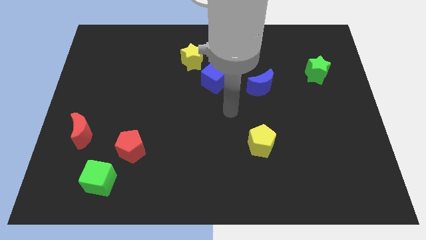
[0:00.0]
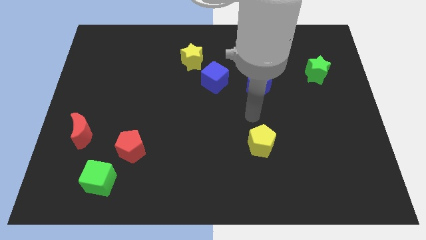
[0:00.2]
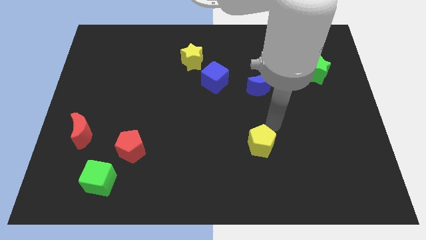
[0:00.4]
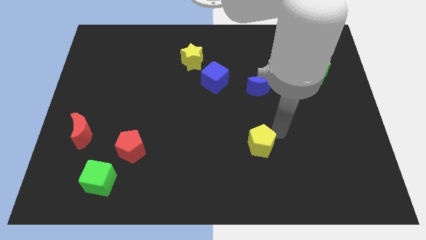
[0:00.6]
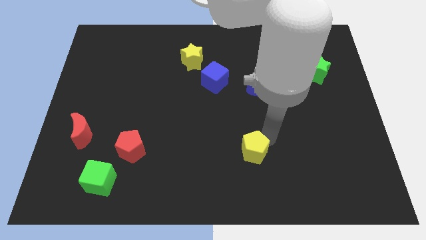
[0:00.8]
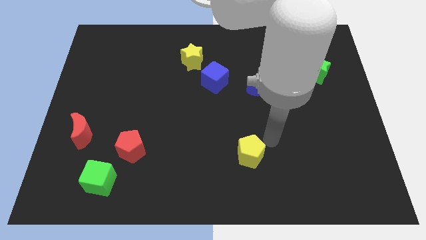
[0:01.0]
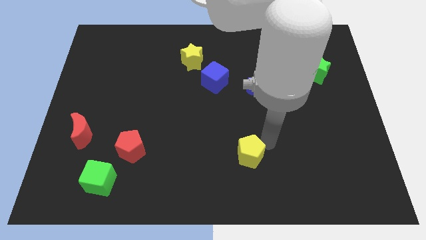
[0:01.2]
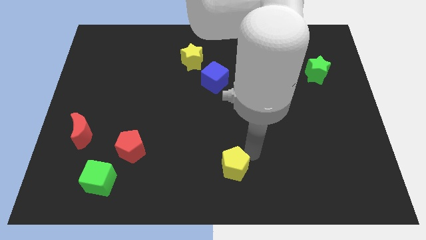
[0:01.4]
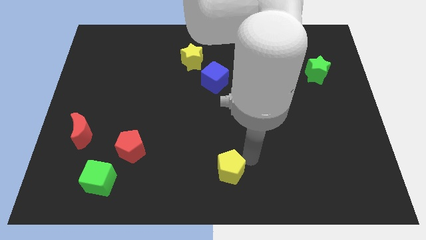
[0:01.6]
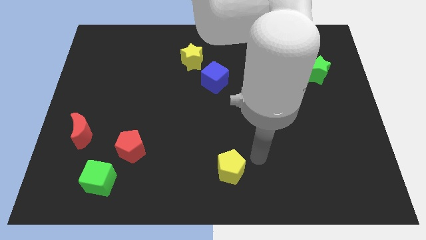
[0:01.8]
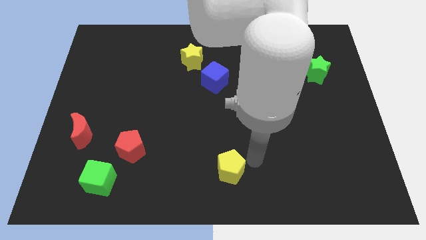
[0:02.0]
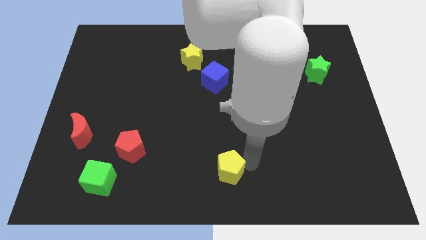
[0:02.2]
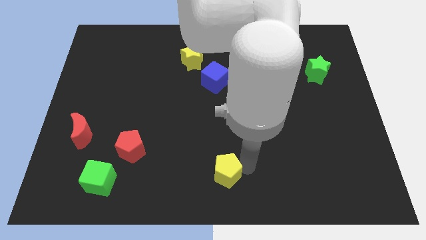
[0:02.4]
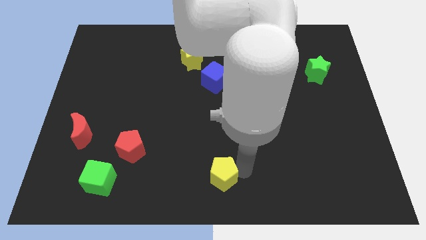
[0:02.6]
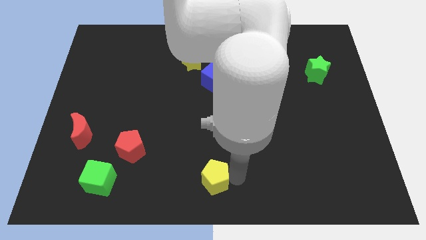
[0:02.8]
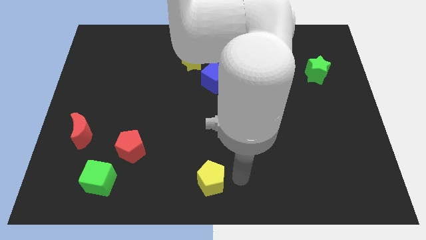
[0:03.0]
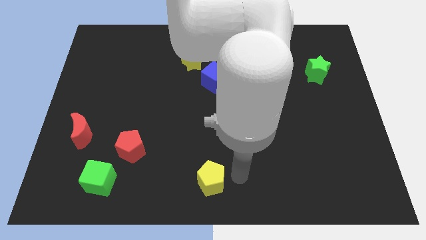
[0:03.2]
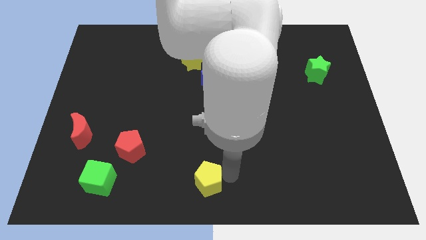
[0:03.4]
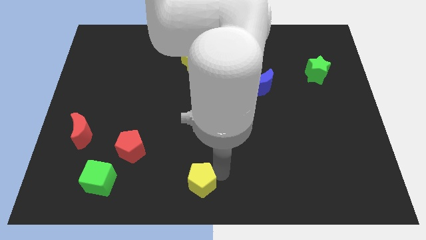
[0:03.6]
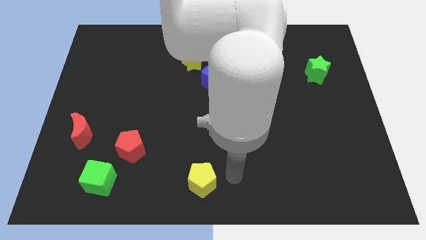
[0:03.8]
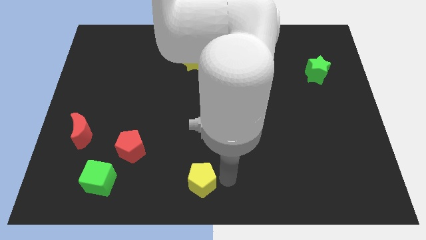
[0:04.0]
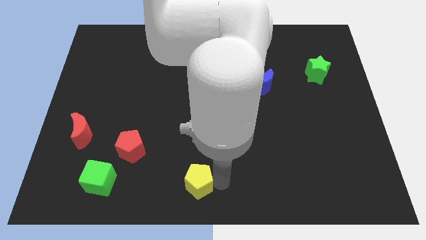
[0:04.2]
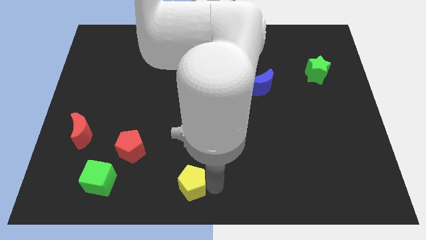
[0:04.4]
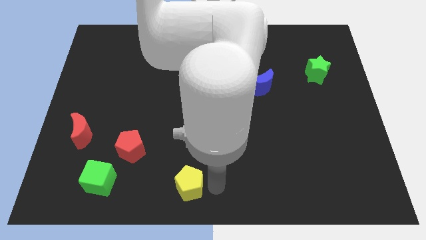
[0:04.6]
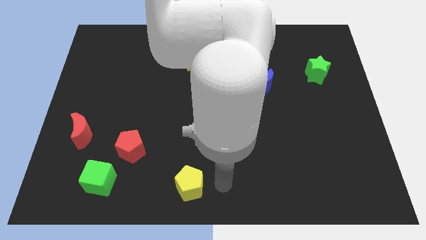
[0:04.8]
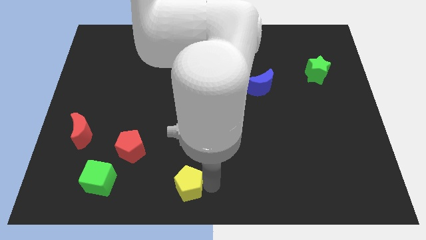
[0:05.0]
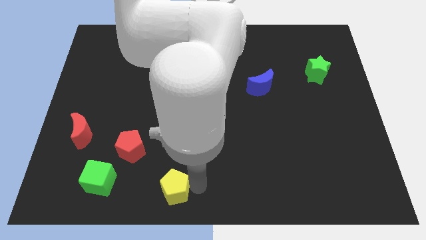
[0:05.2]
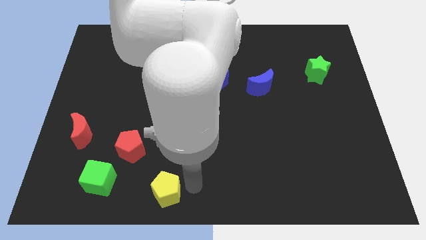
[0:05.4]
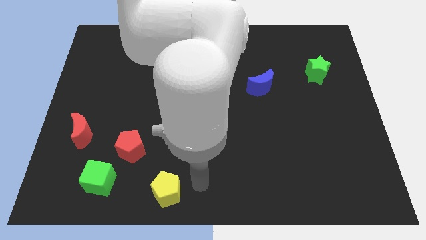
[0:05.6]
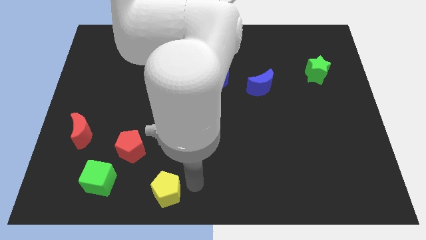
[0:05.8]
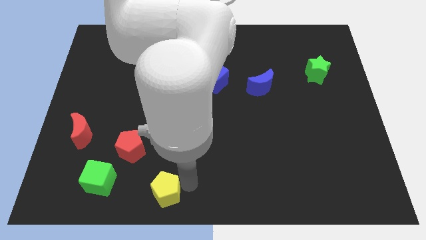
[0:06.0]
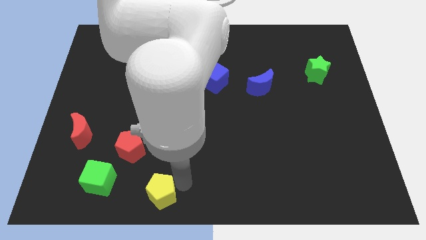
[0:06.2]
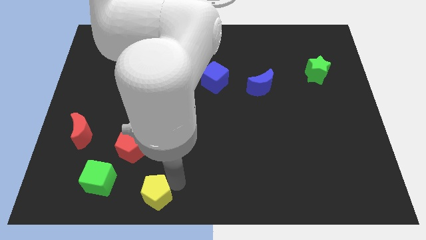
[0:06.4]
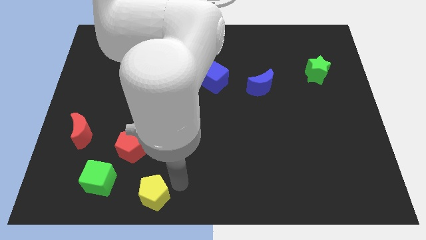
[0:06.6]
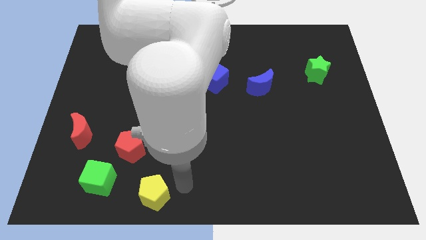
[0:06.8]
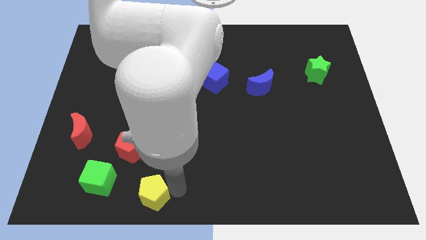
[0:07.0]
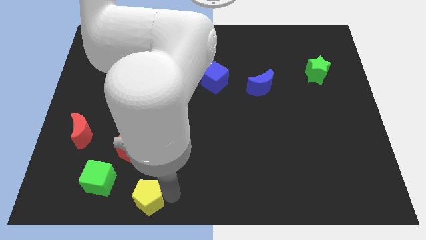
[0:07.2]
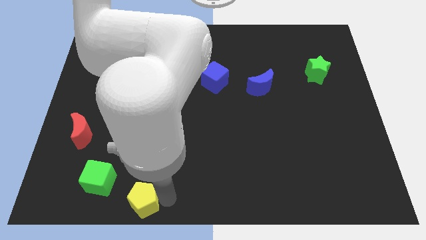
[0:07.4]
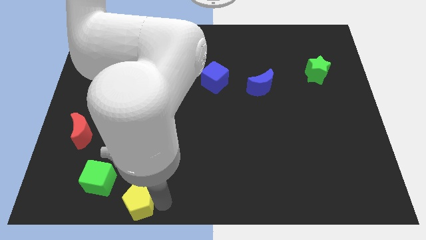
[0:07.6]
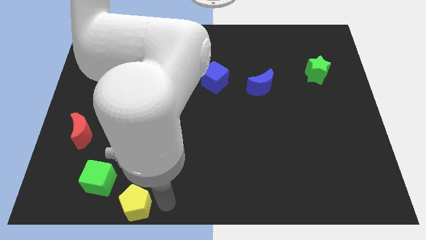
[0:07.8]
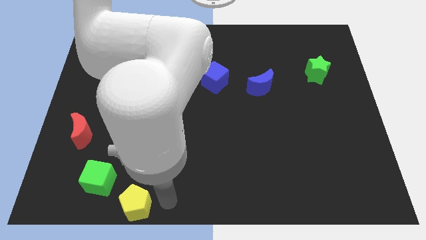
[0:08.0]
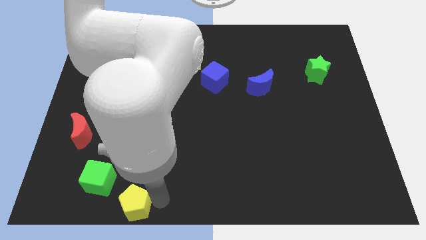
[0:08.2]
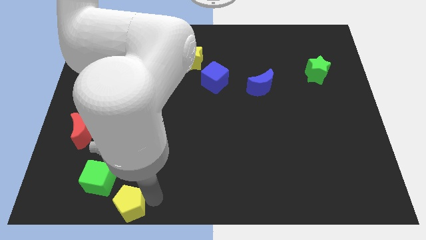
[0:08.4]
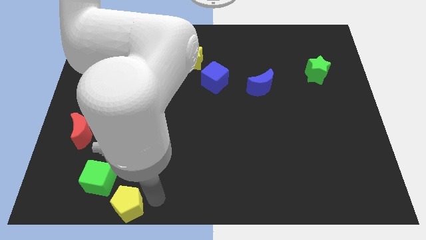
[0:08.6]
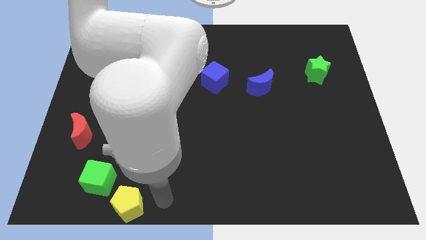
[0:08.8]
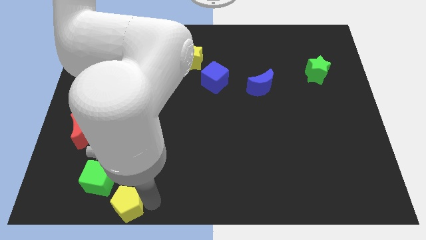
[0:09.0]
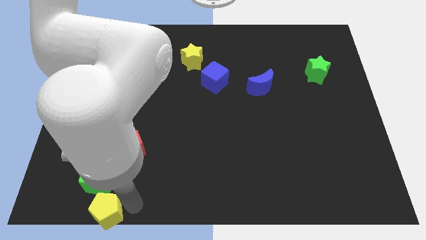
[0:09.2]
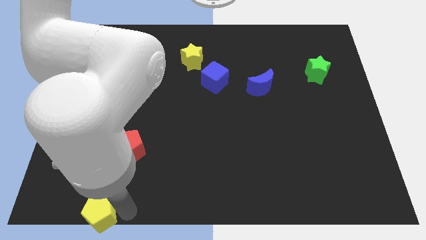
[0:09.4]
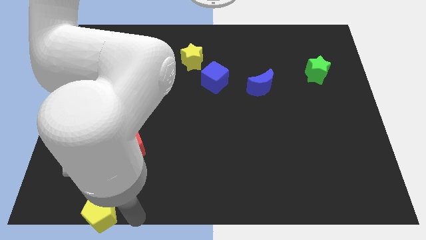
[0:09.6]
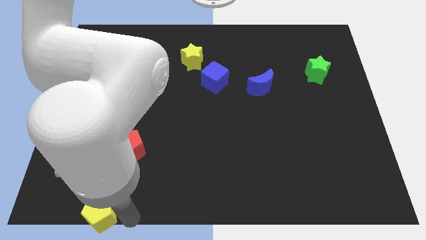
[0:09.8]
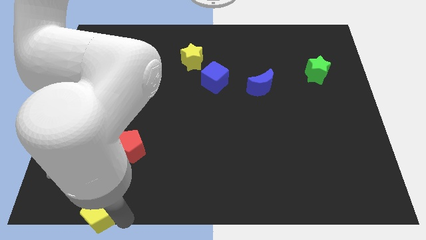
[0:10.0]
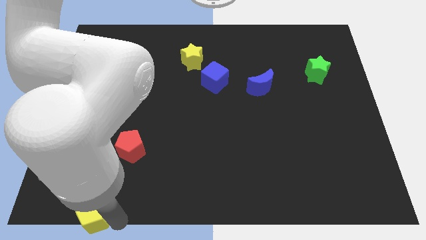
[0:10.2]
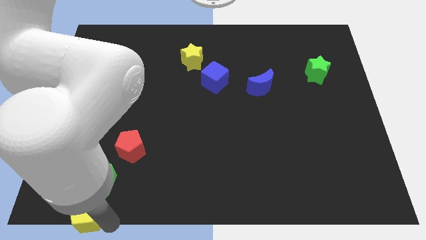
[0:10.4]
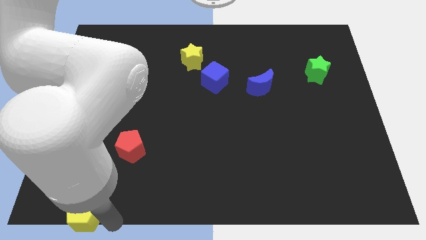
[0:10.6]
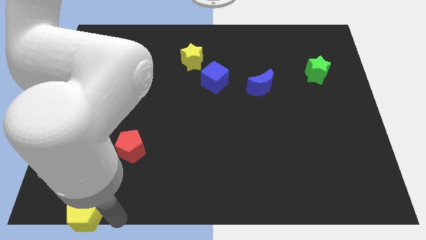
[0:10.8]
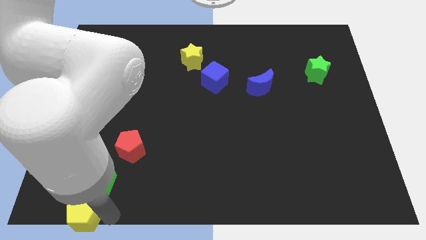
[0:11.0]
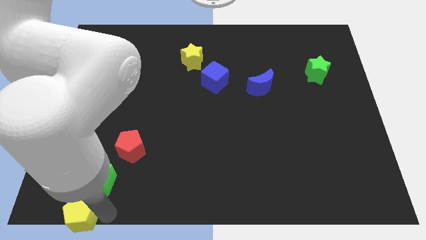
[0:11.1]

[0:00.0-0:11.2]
push the yellow pentagon to the bottom left corner
